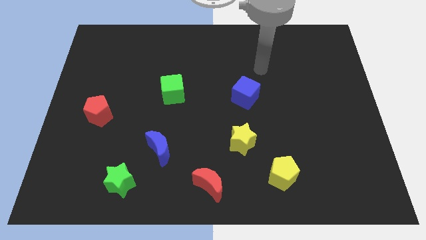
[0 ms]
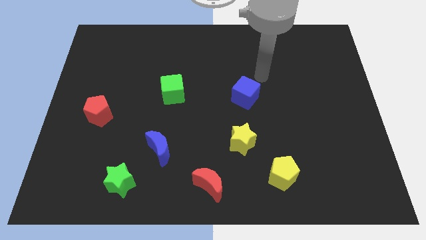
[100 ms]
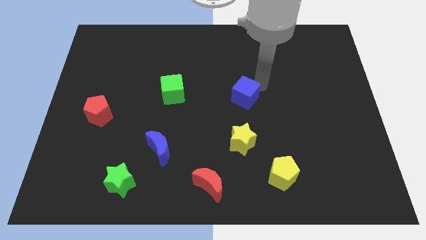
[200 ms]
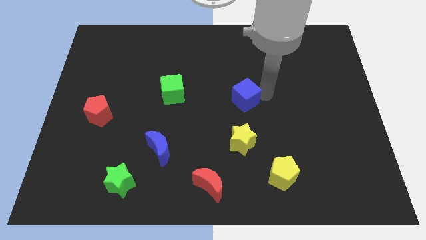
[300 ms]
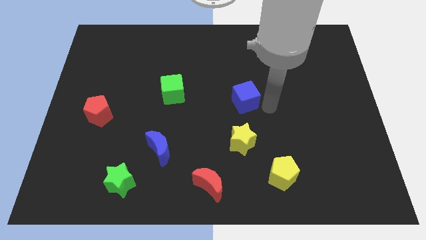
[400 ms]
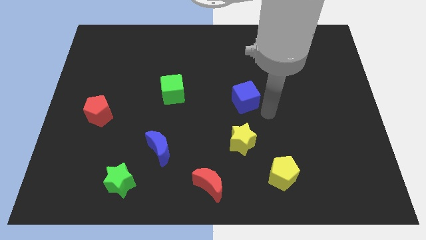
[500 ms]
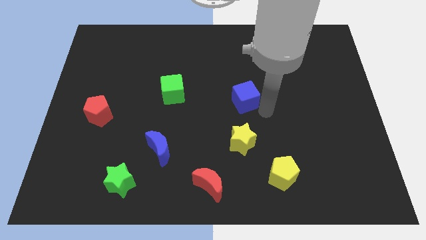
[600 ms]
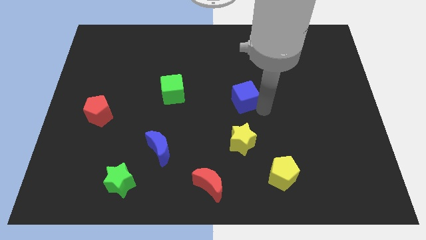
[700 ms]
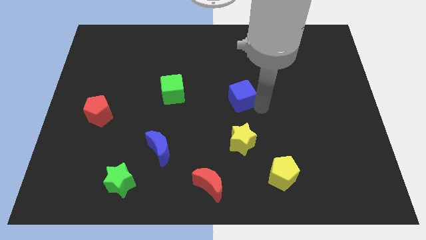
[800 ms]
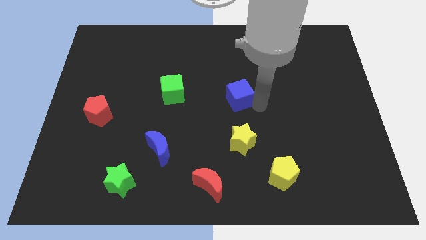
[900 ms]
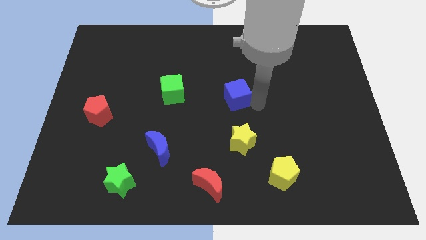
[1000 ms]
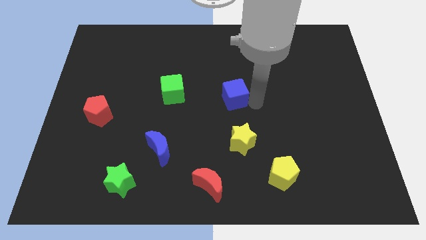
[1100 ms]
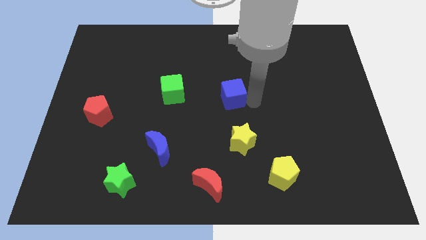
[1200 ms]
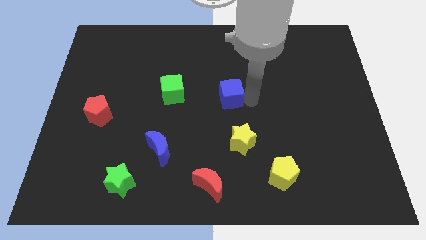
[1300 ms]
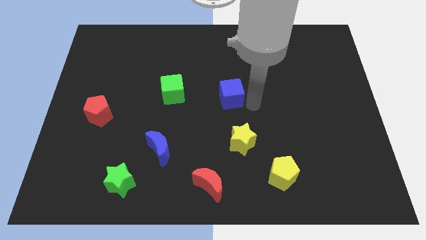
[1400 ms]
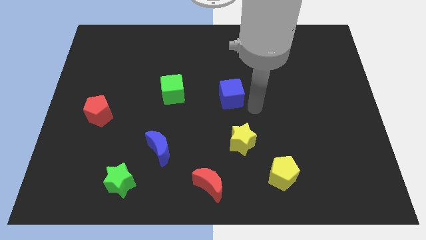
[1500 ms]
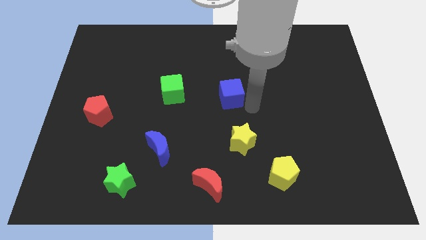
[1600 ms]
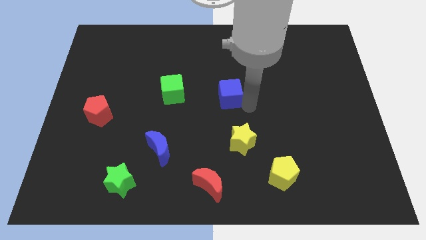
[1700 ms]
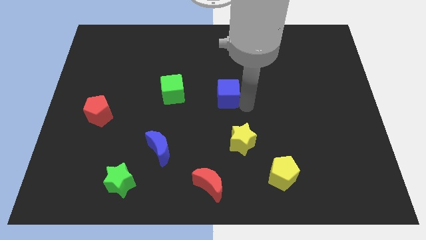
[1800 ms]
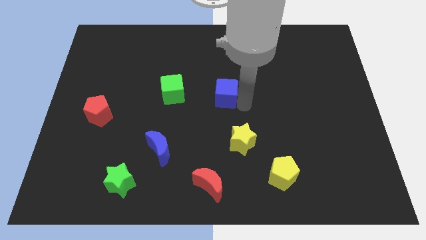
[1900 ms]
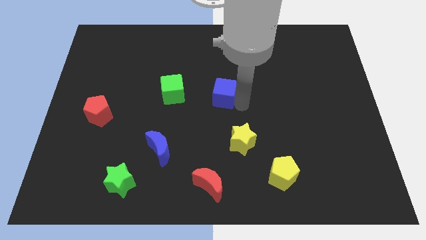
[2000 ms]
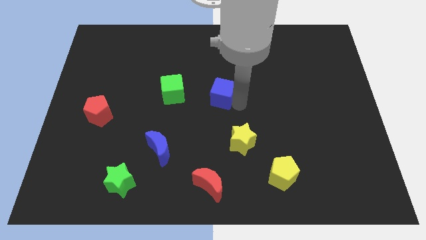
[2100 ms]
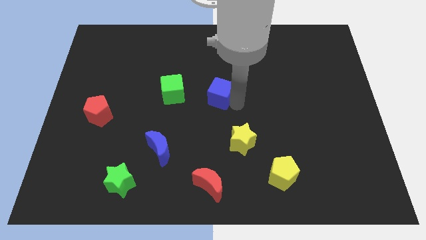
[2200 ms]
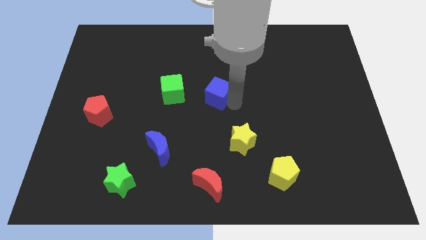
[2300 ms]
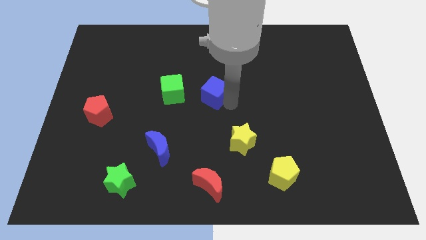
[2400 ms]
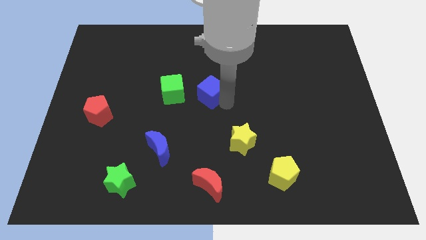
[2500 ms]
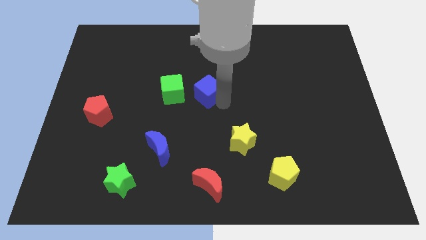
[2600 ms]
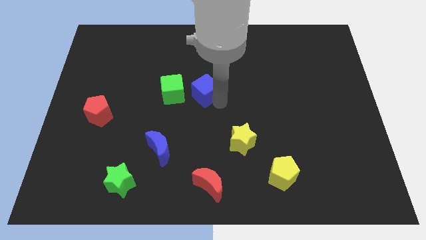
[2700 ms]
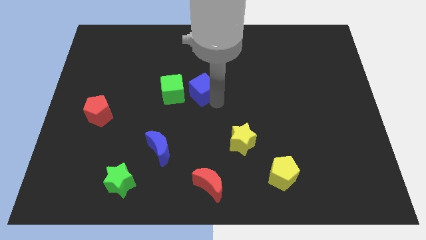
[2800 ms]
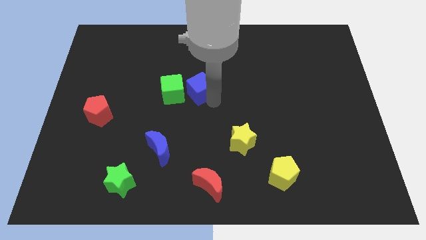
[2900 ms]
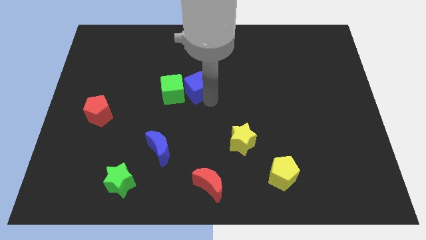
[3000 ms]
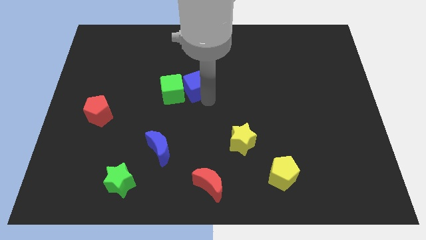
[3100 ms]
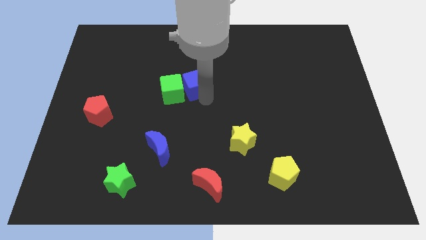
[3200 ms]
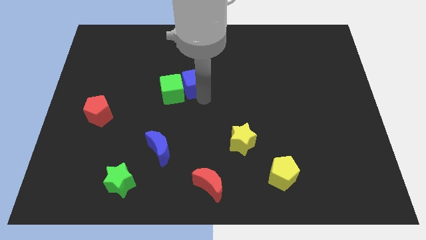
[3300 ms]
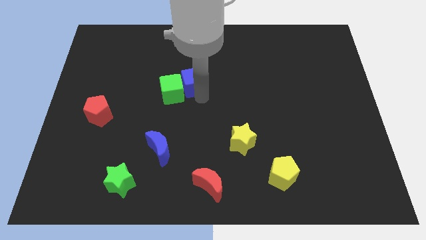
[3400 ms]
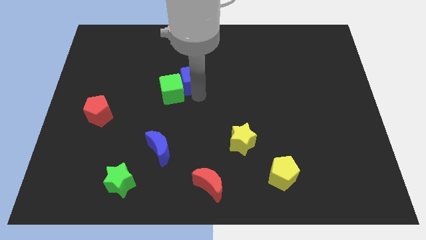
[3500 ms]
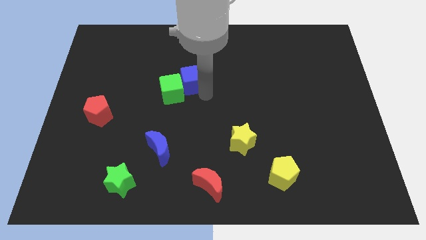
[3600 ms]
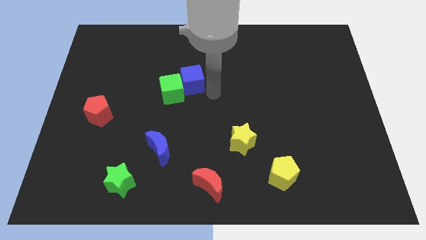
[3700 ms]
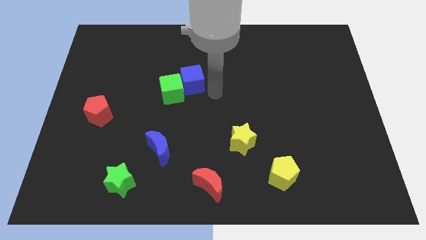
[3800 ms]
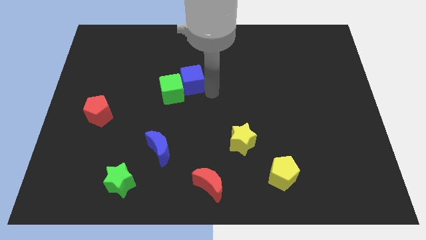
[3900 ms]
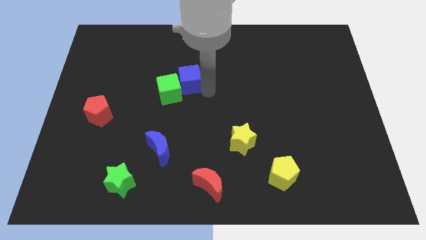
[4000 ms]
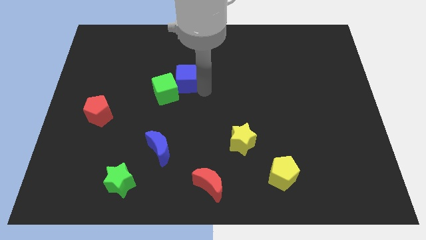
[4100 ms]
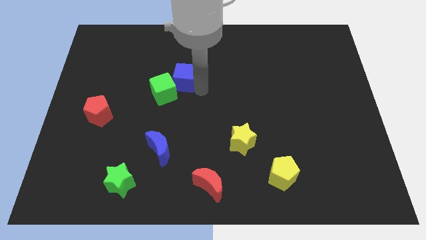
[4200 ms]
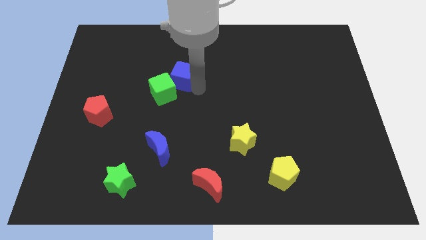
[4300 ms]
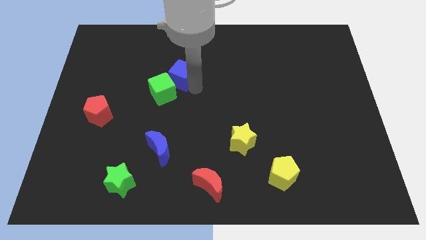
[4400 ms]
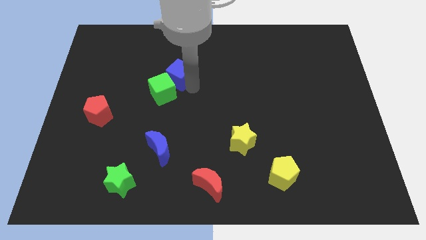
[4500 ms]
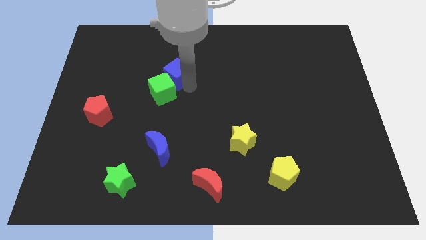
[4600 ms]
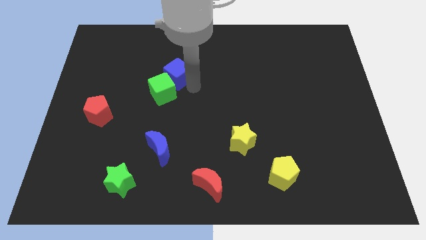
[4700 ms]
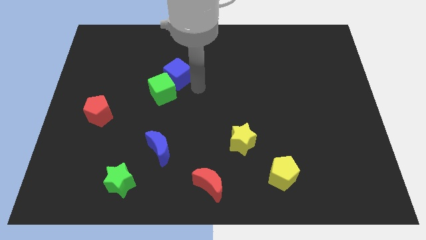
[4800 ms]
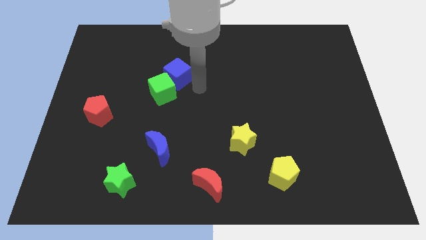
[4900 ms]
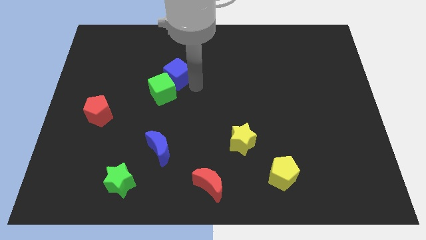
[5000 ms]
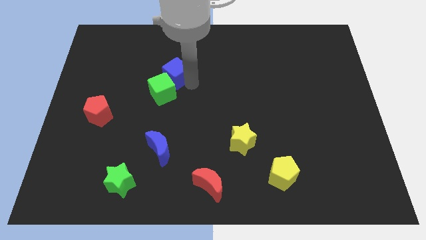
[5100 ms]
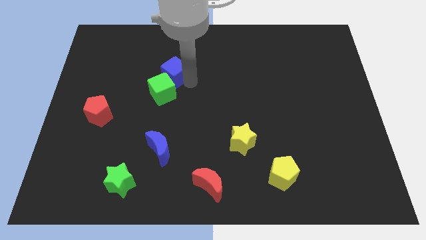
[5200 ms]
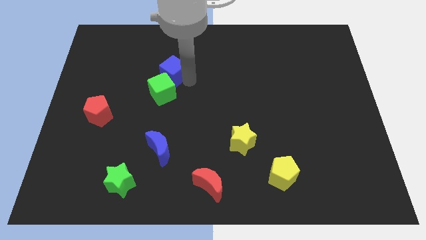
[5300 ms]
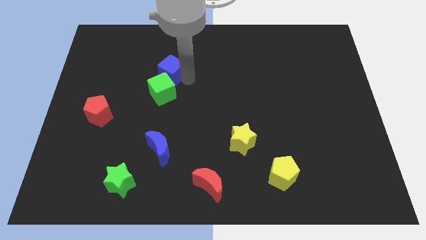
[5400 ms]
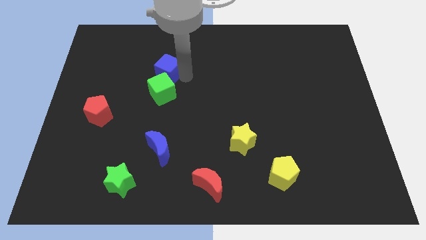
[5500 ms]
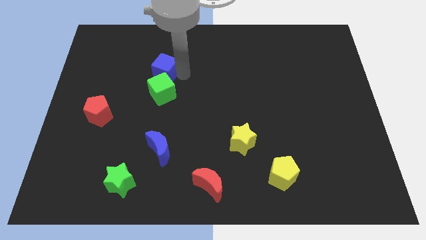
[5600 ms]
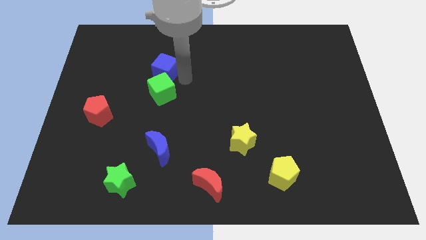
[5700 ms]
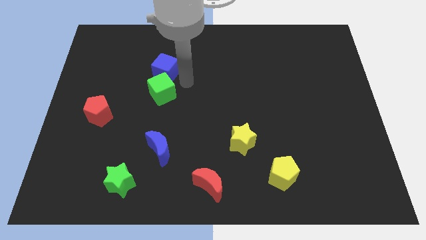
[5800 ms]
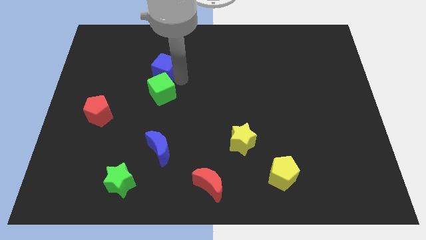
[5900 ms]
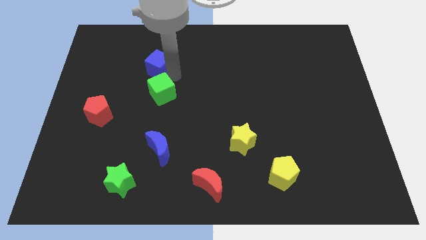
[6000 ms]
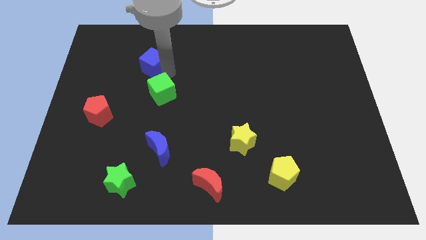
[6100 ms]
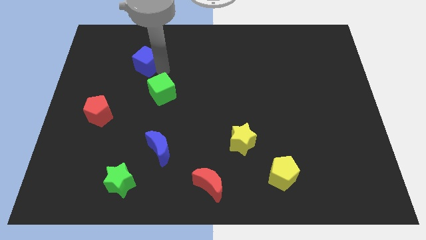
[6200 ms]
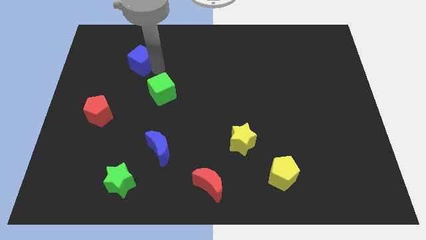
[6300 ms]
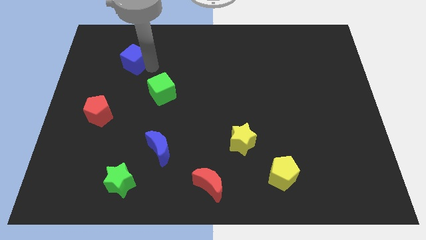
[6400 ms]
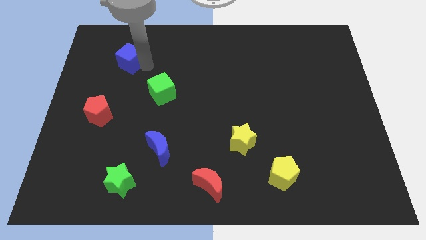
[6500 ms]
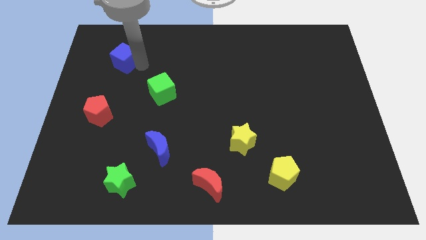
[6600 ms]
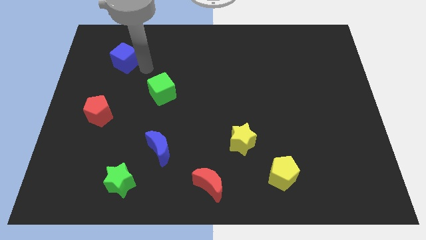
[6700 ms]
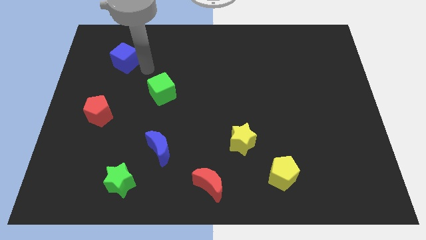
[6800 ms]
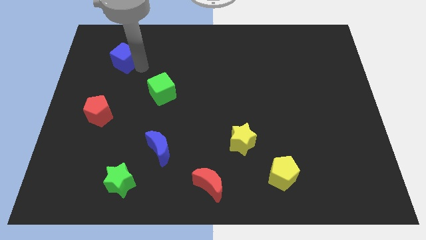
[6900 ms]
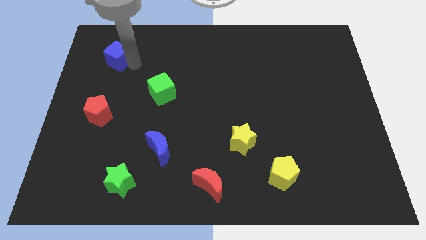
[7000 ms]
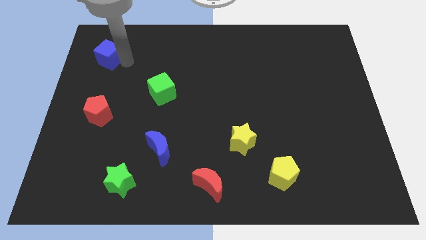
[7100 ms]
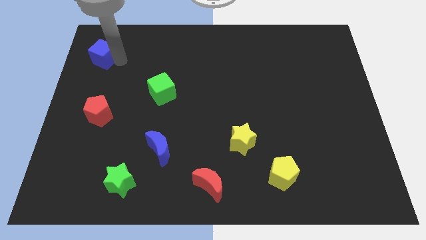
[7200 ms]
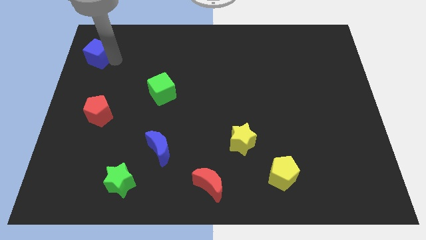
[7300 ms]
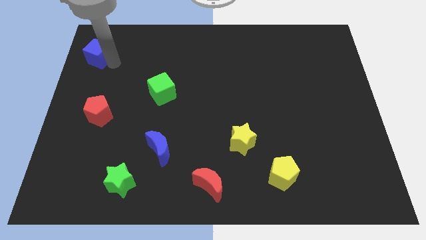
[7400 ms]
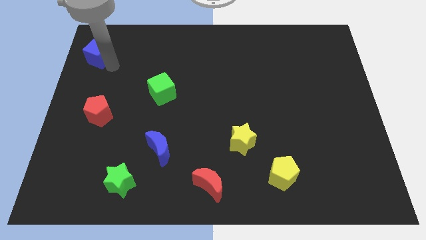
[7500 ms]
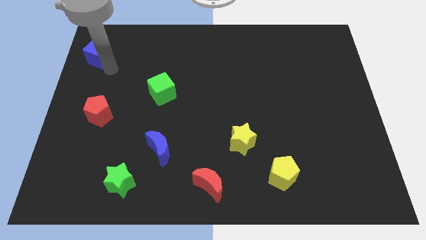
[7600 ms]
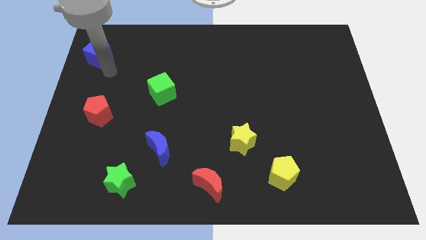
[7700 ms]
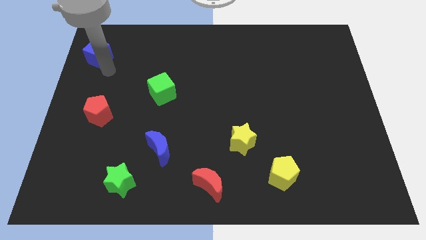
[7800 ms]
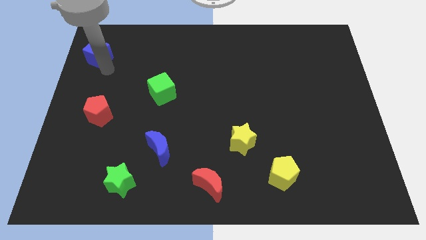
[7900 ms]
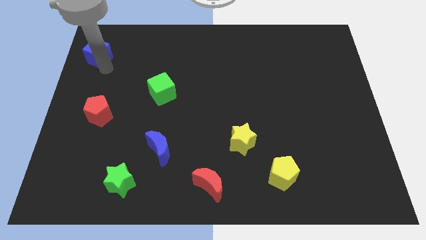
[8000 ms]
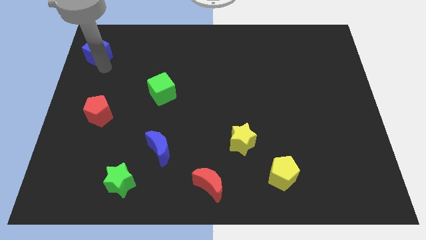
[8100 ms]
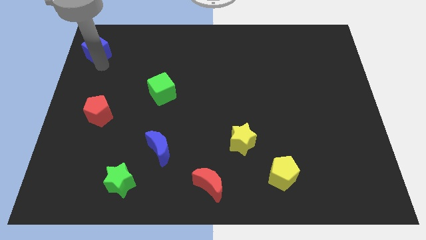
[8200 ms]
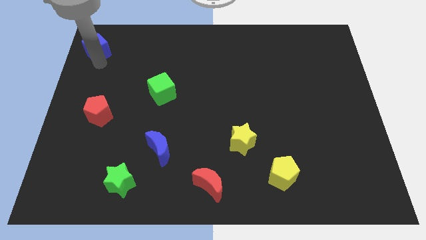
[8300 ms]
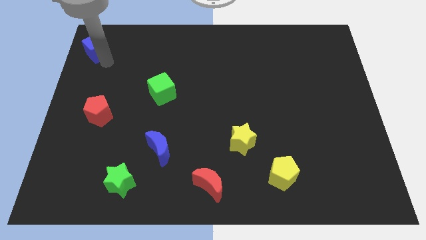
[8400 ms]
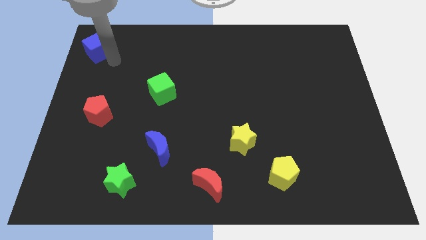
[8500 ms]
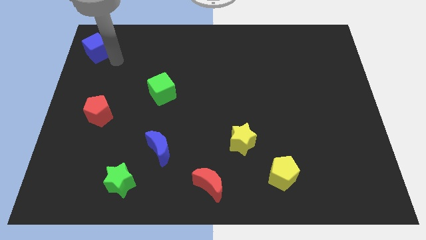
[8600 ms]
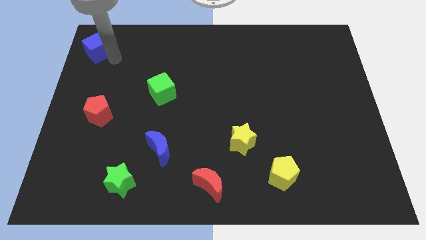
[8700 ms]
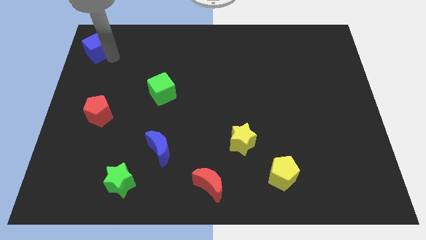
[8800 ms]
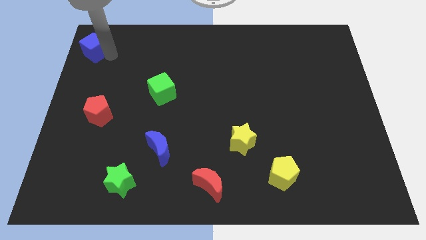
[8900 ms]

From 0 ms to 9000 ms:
push the blue cube to the top left
